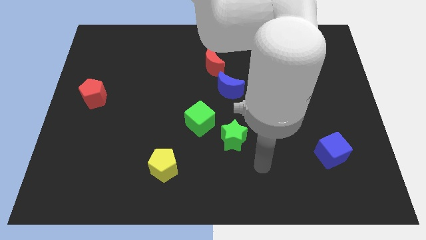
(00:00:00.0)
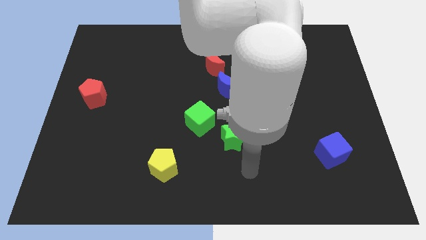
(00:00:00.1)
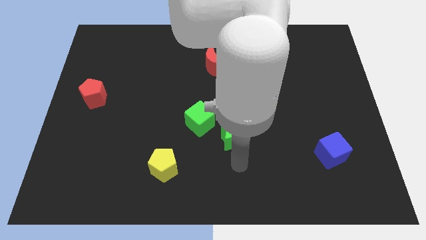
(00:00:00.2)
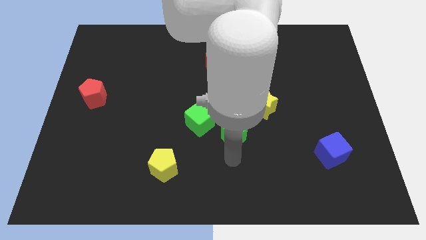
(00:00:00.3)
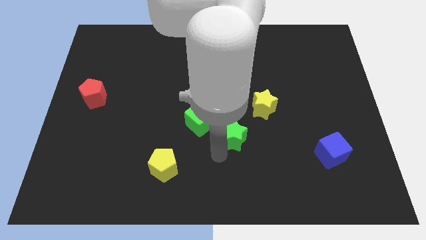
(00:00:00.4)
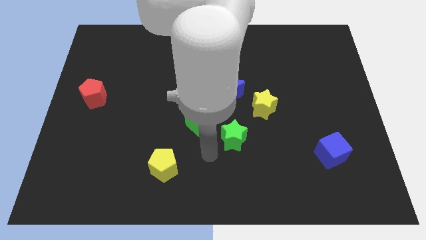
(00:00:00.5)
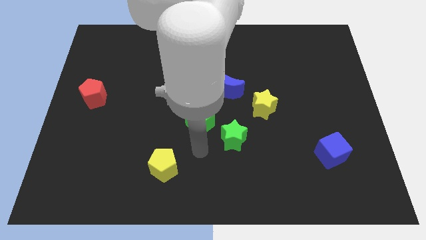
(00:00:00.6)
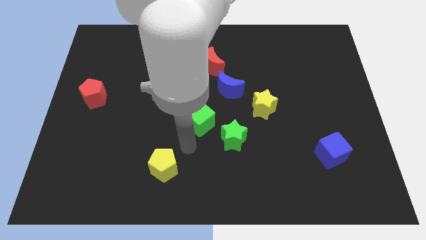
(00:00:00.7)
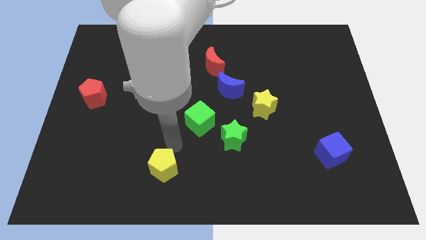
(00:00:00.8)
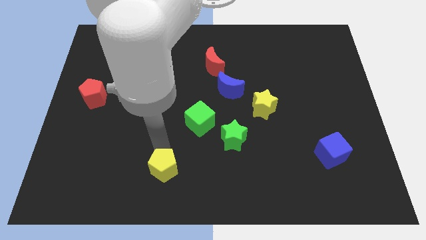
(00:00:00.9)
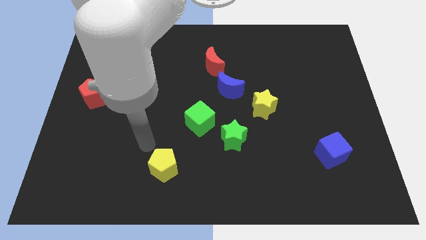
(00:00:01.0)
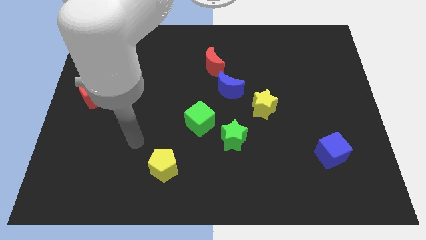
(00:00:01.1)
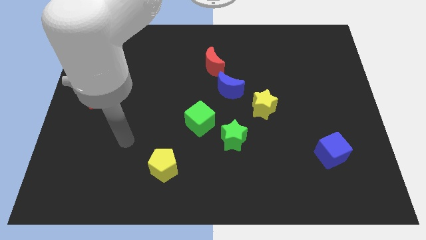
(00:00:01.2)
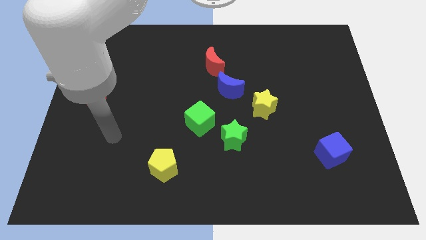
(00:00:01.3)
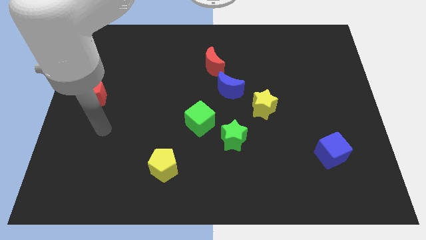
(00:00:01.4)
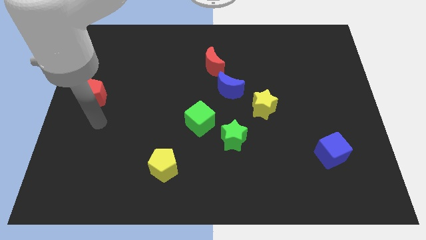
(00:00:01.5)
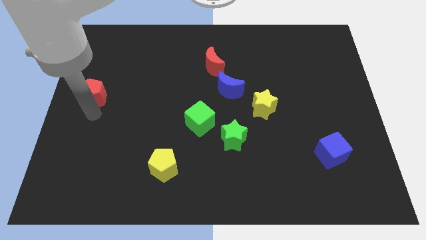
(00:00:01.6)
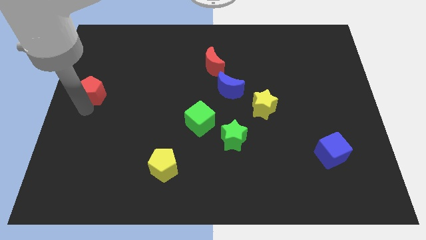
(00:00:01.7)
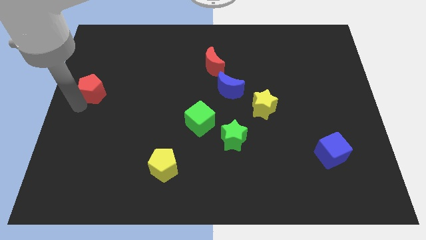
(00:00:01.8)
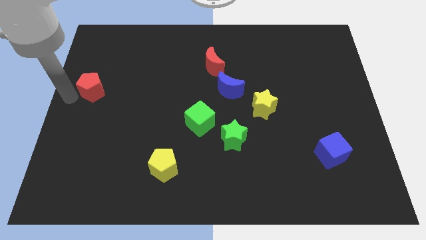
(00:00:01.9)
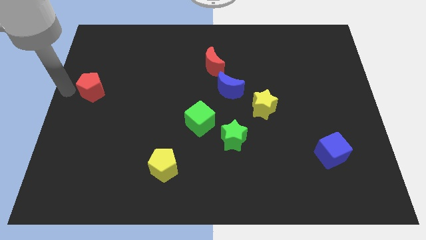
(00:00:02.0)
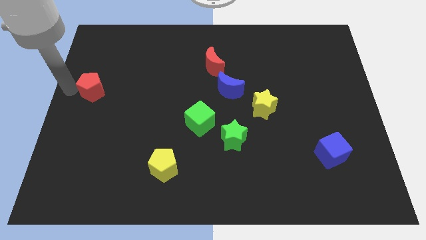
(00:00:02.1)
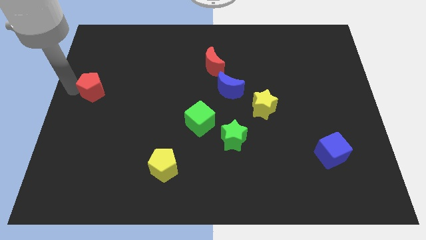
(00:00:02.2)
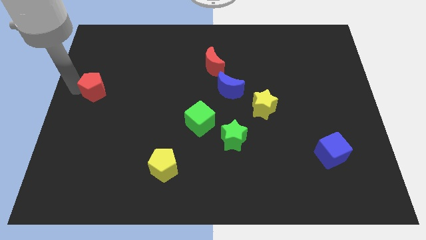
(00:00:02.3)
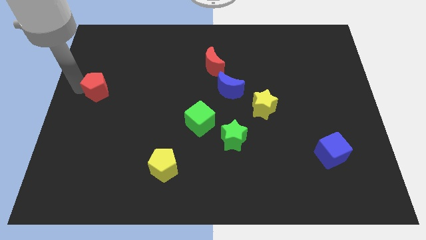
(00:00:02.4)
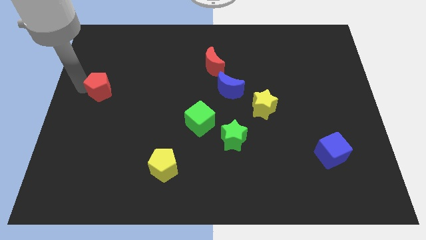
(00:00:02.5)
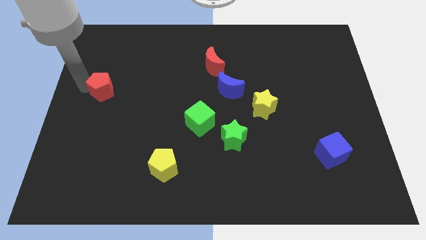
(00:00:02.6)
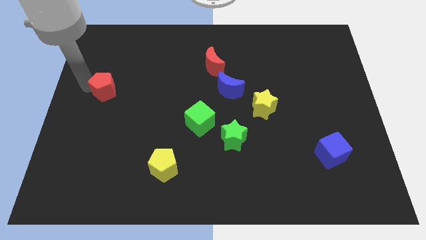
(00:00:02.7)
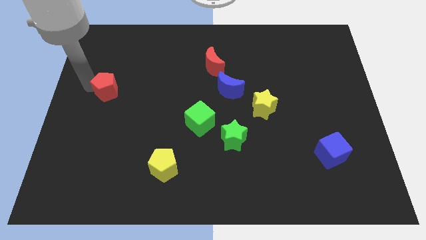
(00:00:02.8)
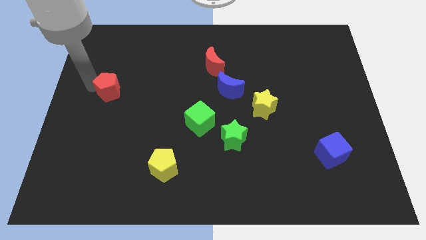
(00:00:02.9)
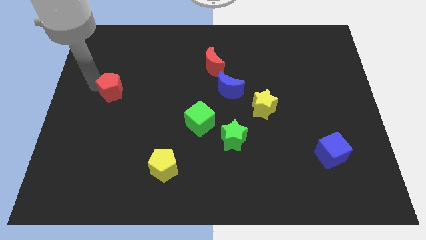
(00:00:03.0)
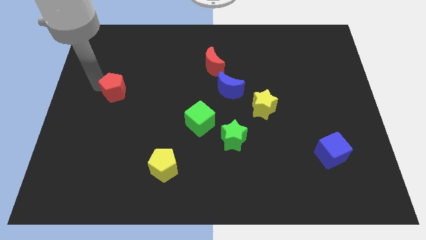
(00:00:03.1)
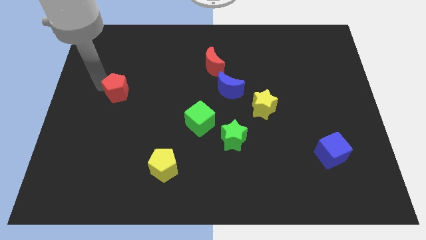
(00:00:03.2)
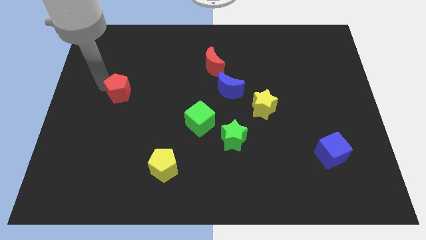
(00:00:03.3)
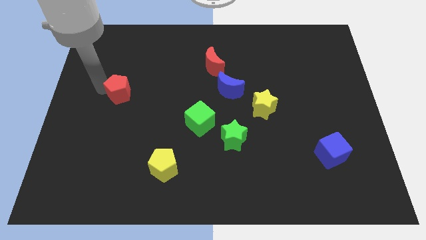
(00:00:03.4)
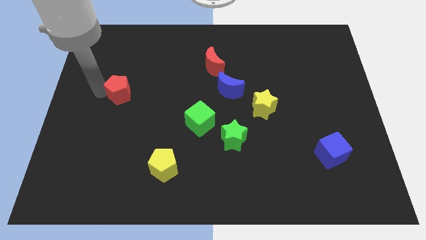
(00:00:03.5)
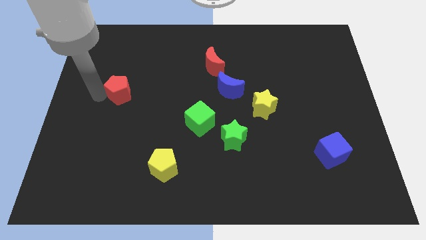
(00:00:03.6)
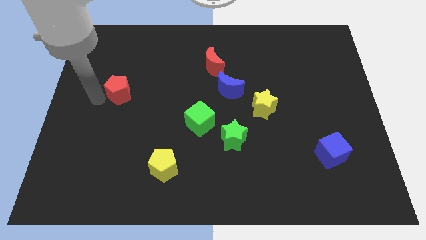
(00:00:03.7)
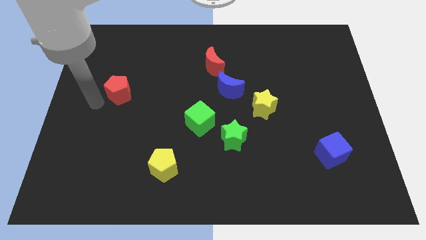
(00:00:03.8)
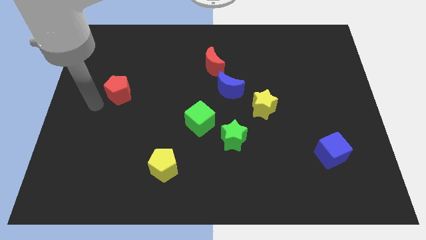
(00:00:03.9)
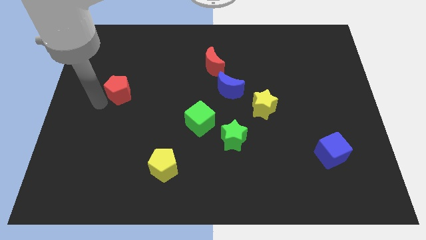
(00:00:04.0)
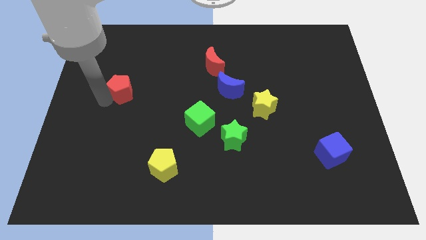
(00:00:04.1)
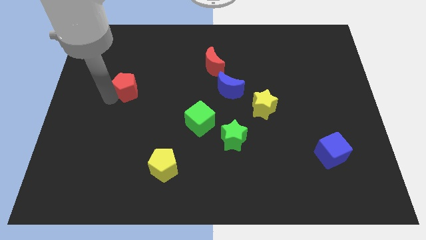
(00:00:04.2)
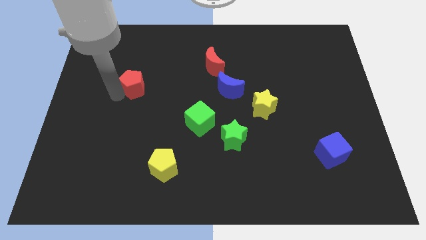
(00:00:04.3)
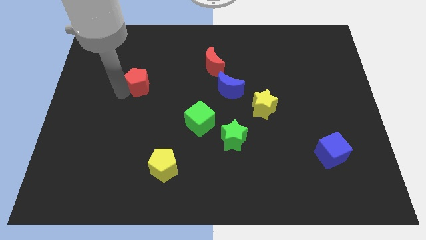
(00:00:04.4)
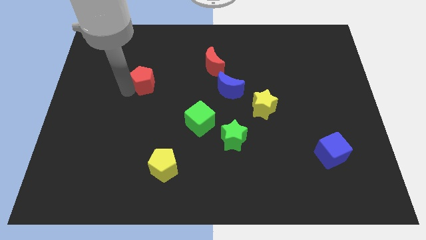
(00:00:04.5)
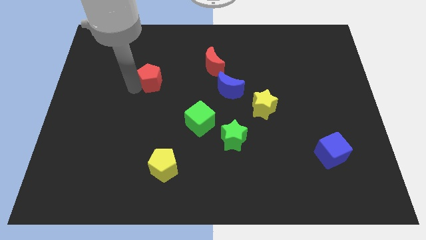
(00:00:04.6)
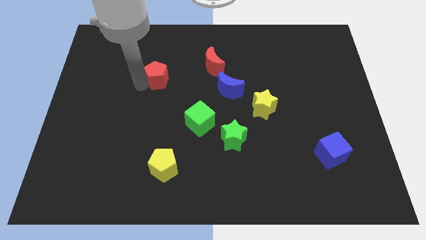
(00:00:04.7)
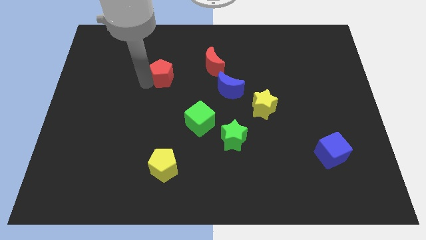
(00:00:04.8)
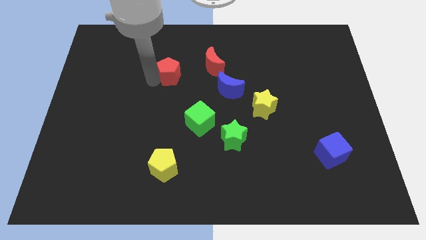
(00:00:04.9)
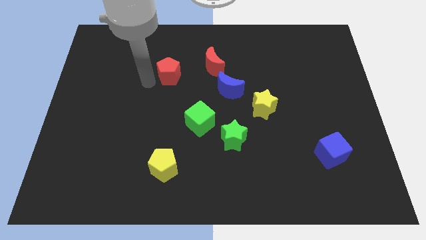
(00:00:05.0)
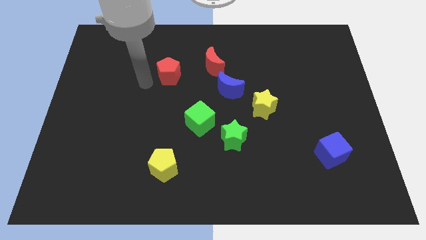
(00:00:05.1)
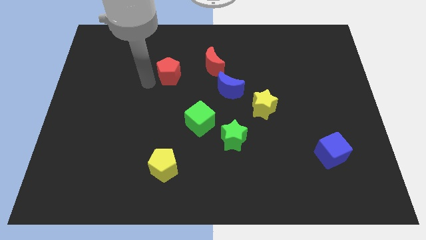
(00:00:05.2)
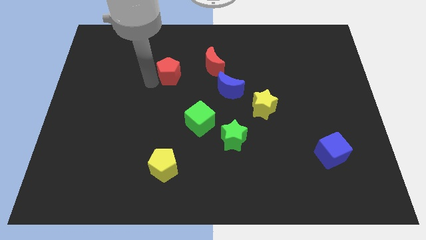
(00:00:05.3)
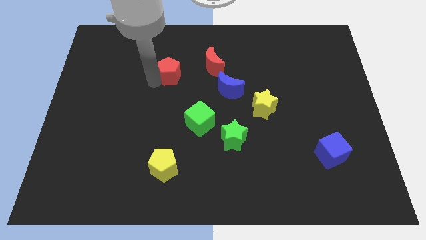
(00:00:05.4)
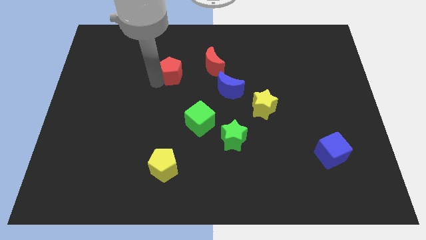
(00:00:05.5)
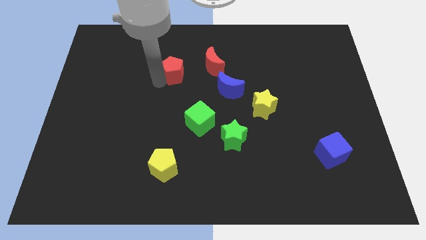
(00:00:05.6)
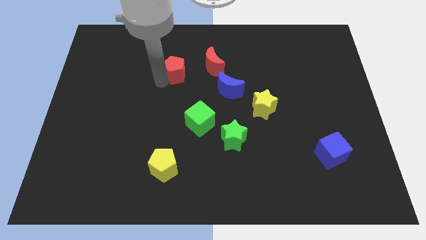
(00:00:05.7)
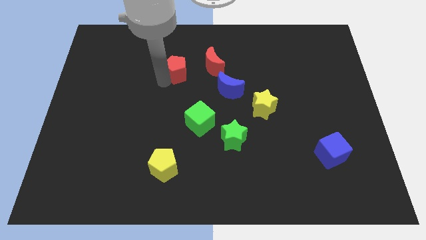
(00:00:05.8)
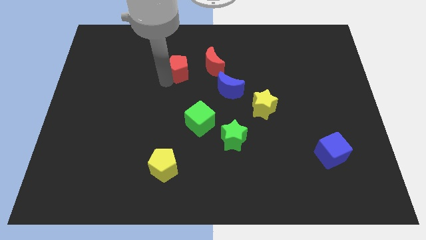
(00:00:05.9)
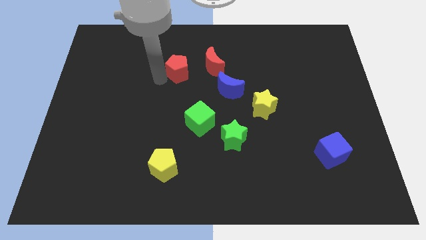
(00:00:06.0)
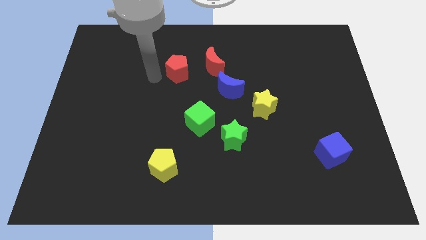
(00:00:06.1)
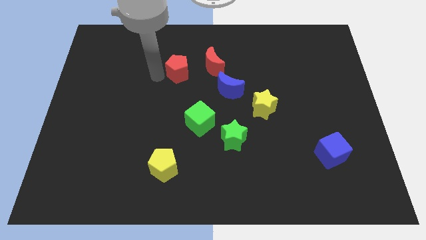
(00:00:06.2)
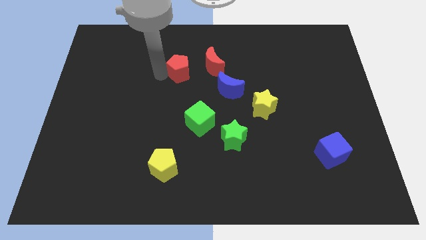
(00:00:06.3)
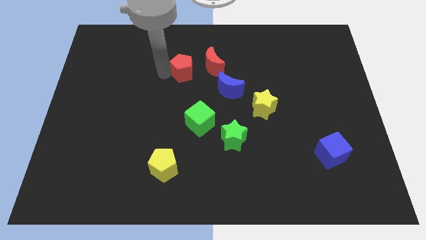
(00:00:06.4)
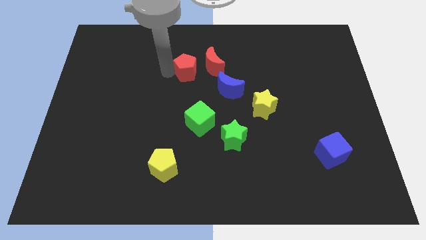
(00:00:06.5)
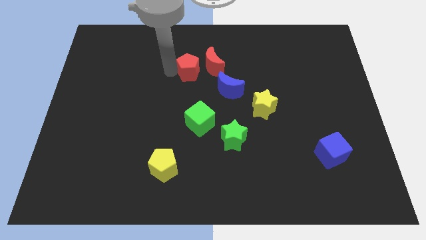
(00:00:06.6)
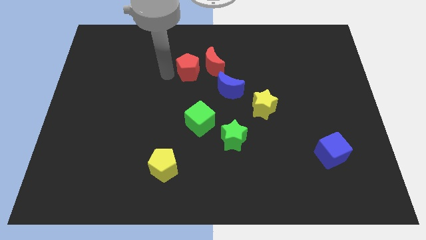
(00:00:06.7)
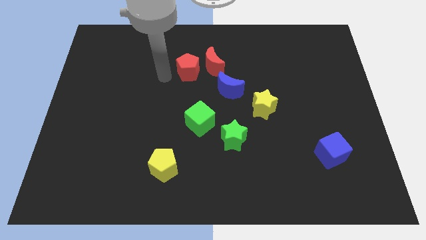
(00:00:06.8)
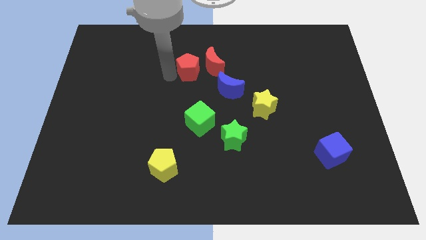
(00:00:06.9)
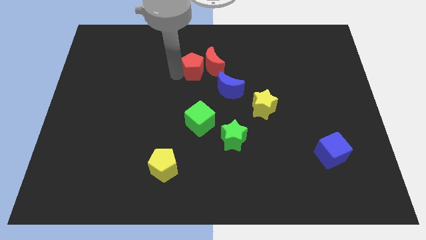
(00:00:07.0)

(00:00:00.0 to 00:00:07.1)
slide the red pentagon towards the red moon
